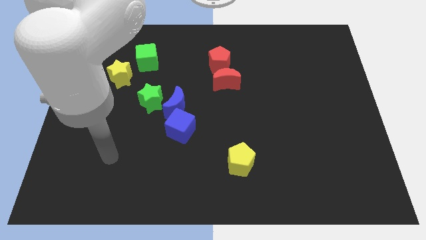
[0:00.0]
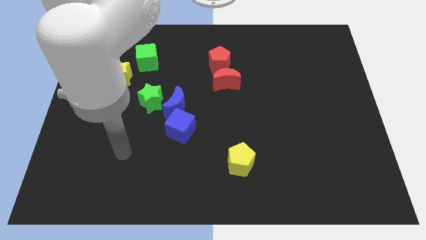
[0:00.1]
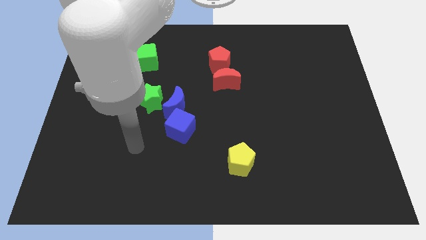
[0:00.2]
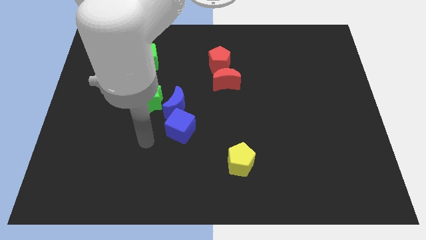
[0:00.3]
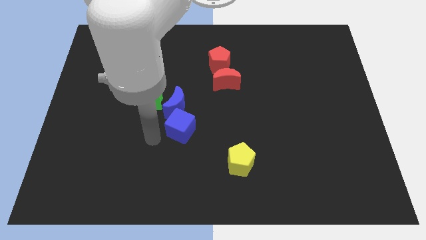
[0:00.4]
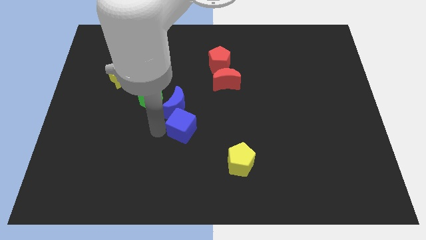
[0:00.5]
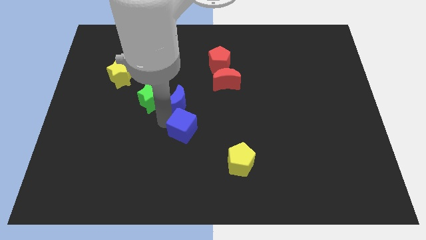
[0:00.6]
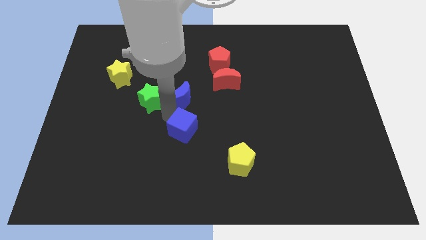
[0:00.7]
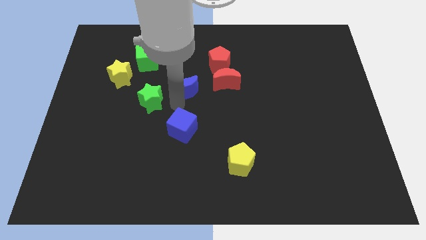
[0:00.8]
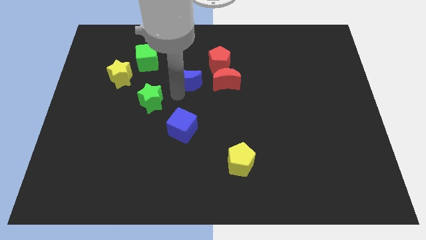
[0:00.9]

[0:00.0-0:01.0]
pull the green star apart from the blue moon

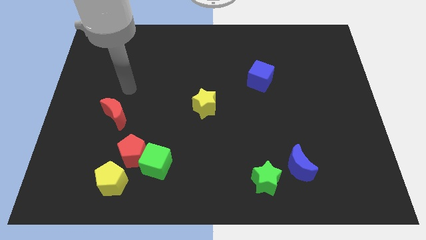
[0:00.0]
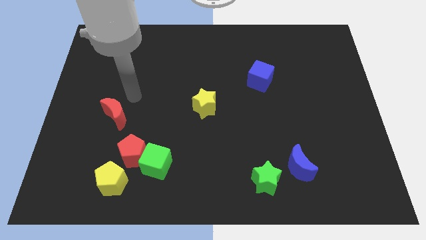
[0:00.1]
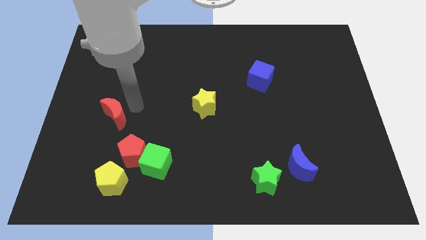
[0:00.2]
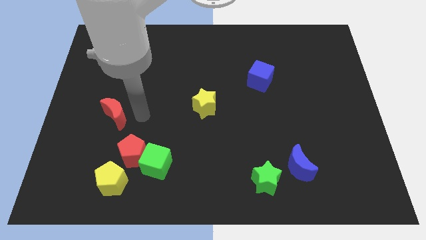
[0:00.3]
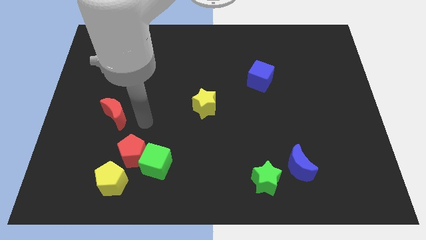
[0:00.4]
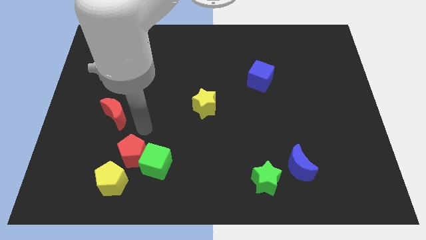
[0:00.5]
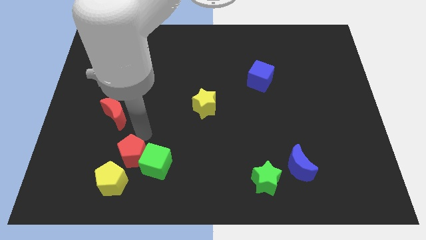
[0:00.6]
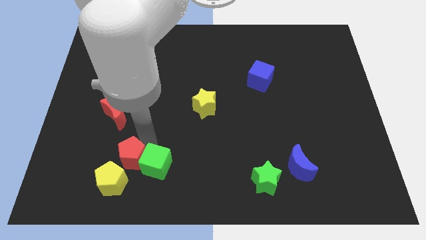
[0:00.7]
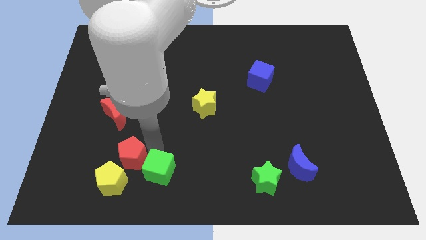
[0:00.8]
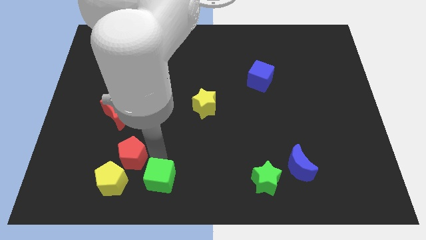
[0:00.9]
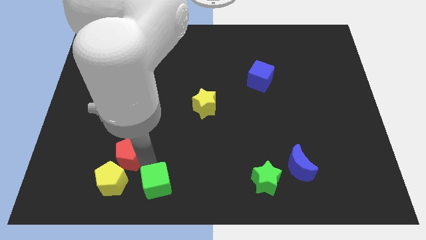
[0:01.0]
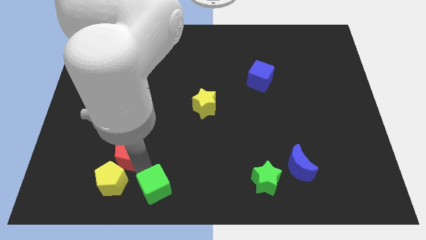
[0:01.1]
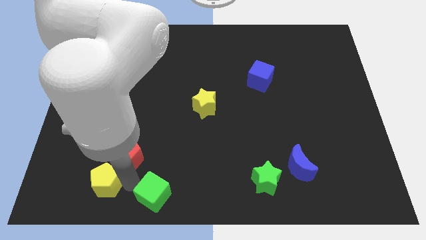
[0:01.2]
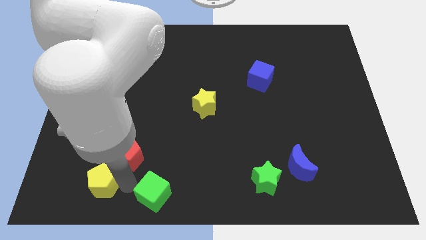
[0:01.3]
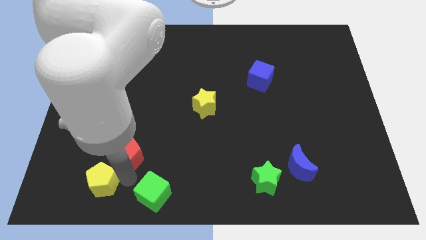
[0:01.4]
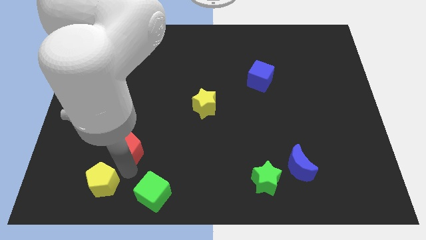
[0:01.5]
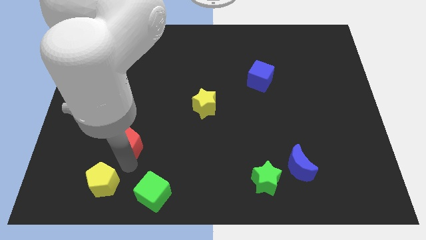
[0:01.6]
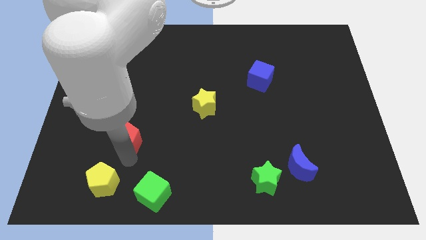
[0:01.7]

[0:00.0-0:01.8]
pull the red pentagon apart from the green cube and yellow pentagon

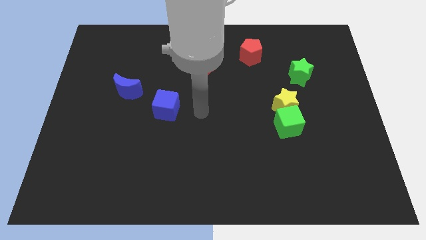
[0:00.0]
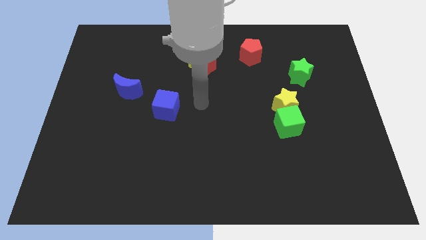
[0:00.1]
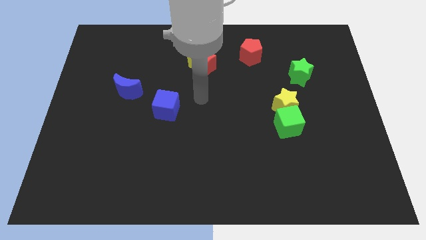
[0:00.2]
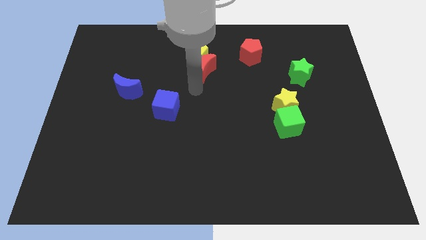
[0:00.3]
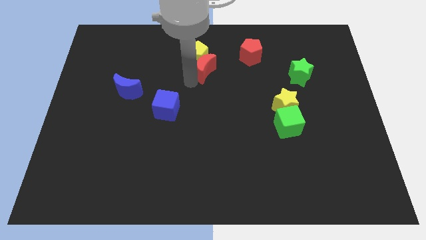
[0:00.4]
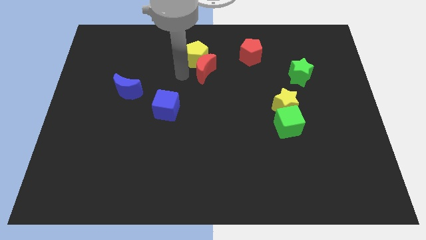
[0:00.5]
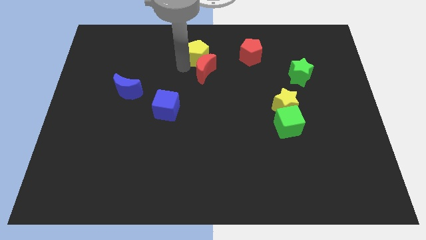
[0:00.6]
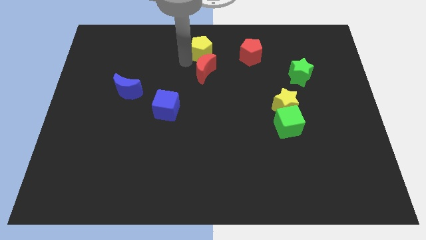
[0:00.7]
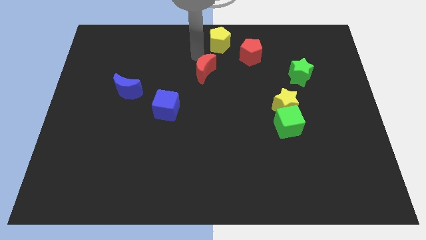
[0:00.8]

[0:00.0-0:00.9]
pull the red moon apart from the yellow pentagon

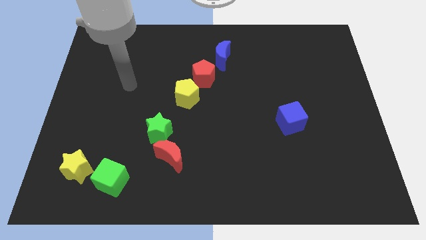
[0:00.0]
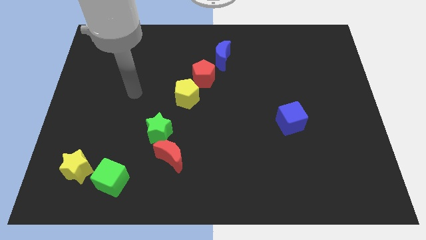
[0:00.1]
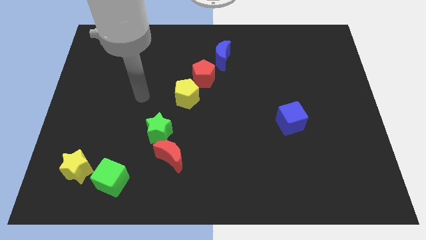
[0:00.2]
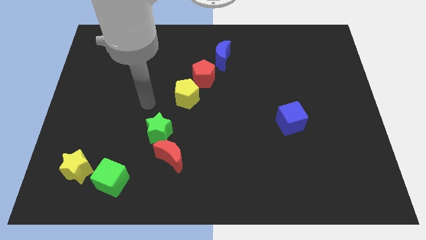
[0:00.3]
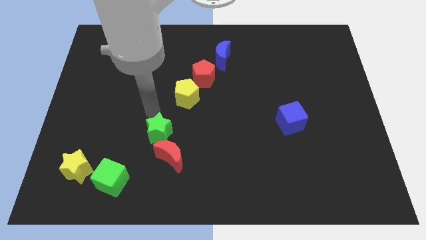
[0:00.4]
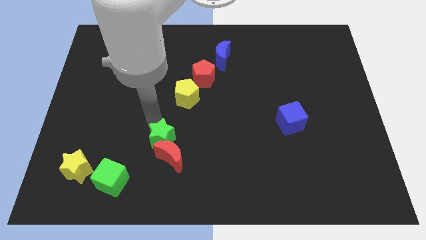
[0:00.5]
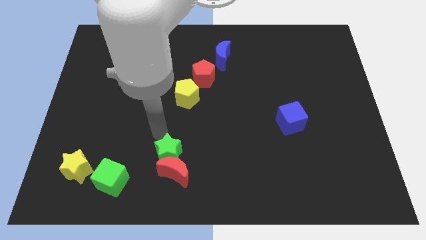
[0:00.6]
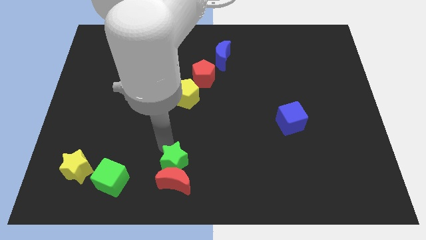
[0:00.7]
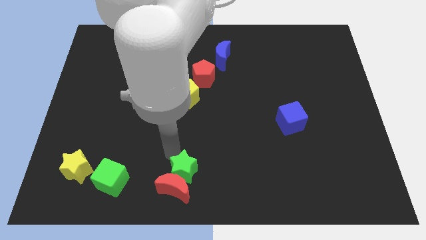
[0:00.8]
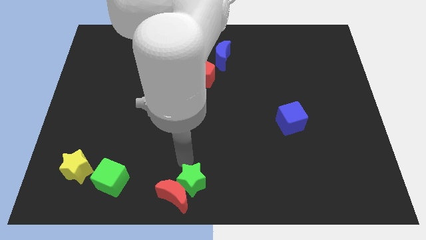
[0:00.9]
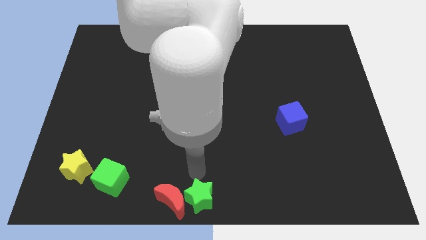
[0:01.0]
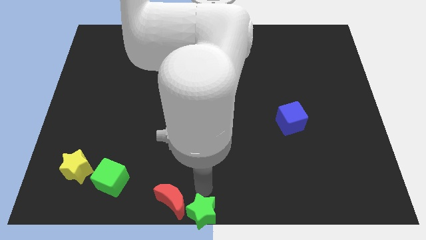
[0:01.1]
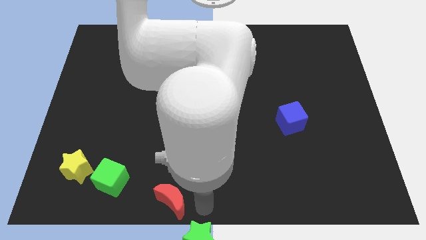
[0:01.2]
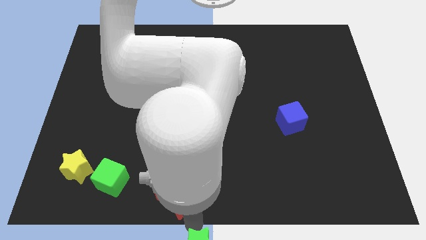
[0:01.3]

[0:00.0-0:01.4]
move the red moon away from the green star

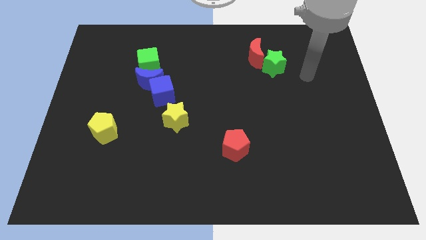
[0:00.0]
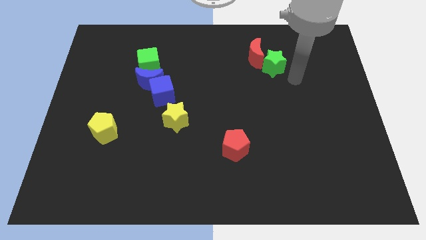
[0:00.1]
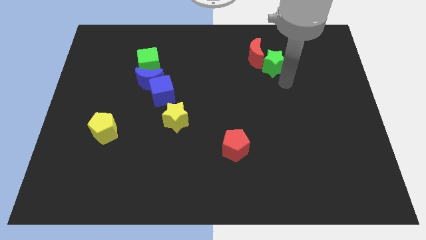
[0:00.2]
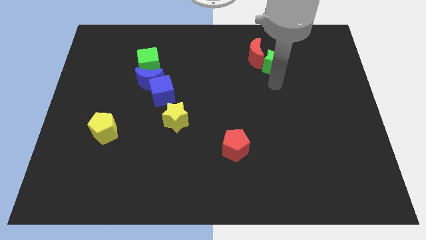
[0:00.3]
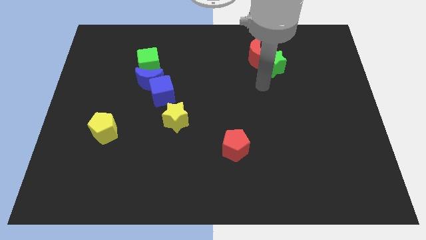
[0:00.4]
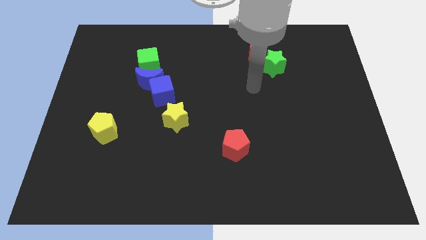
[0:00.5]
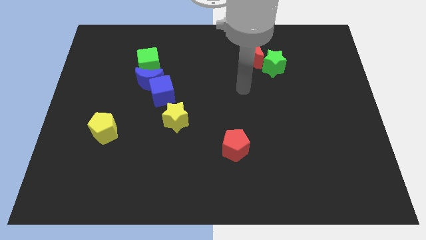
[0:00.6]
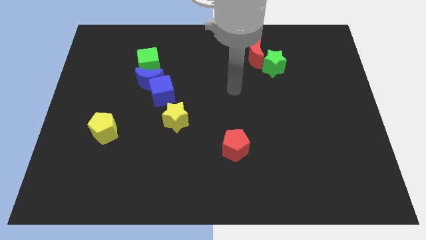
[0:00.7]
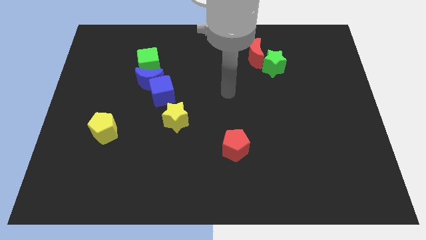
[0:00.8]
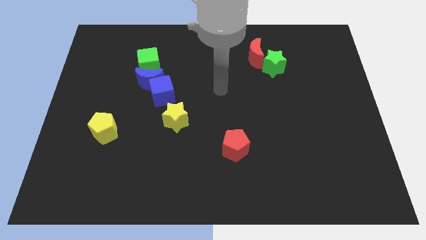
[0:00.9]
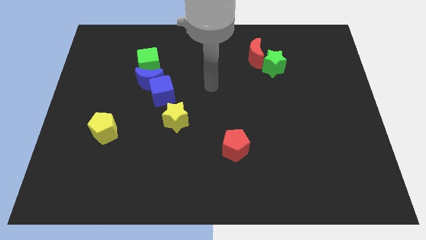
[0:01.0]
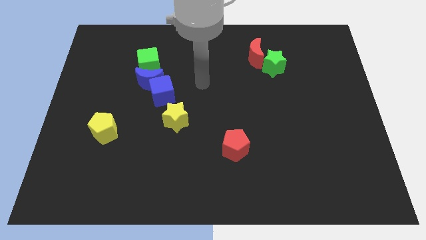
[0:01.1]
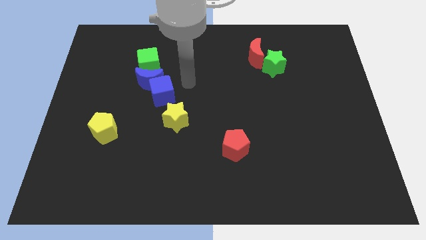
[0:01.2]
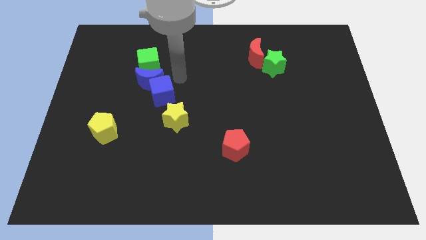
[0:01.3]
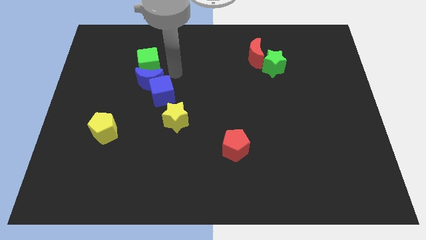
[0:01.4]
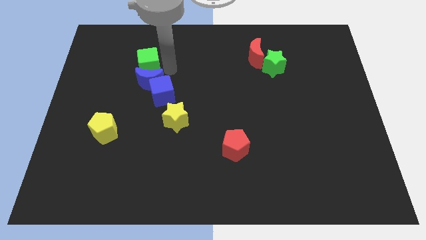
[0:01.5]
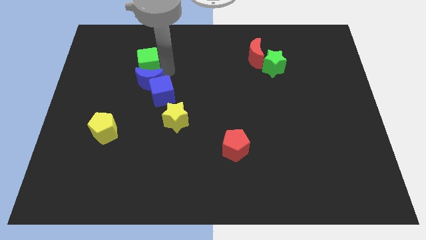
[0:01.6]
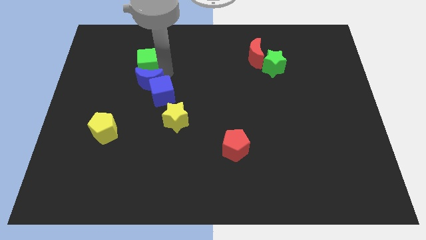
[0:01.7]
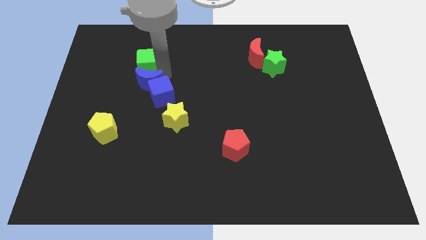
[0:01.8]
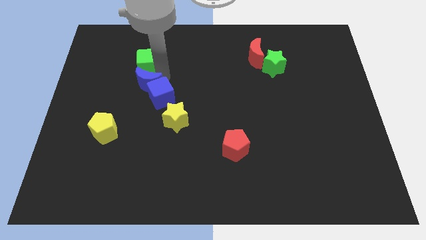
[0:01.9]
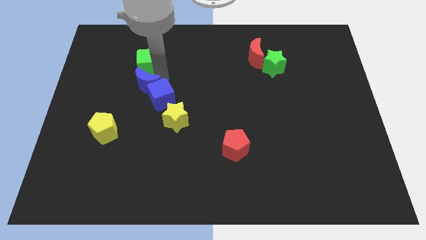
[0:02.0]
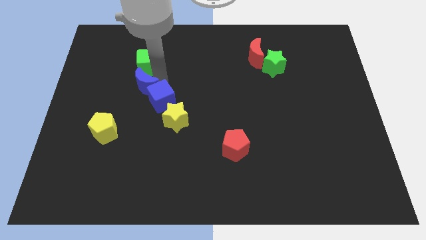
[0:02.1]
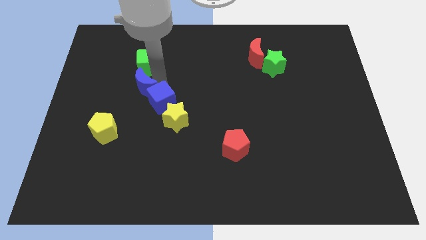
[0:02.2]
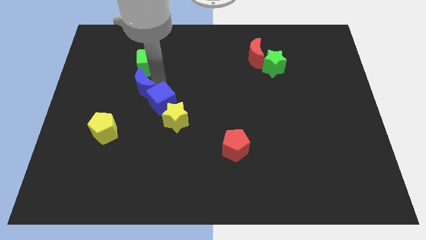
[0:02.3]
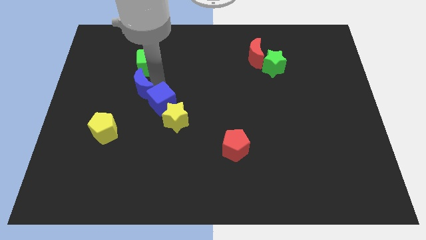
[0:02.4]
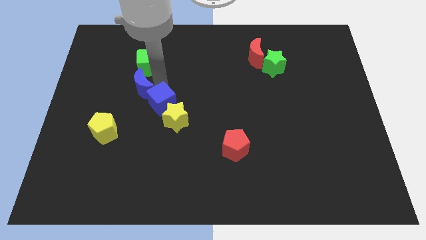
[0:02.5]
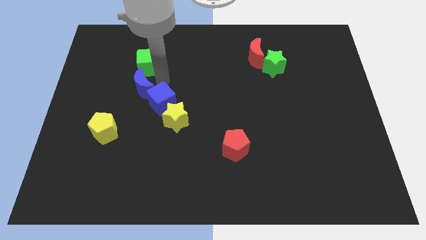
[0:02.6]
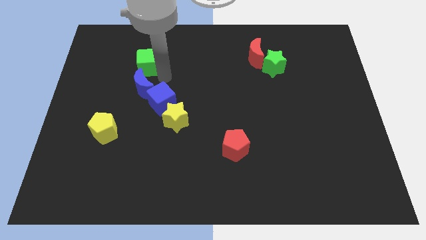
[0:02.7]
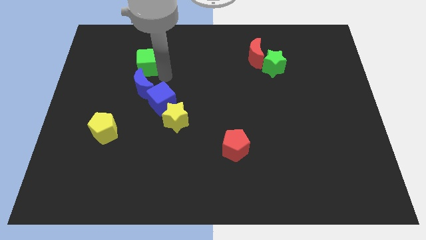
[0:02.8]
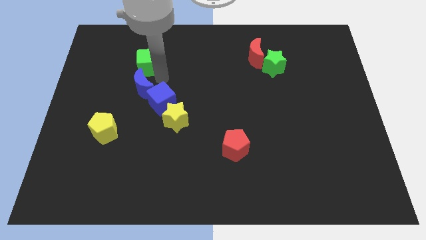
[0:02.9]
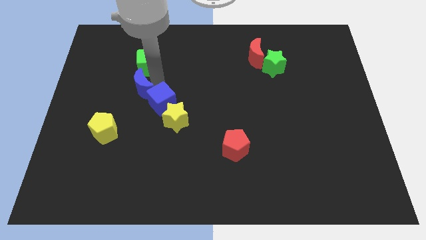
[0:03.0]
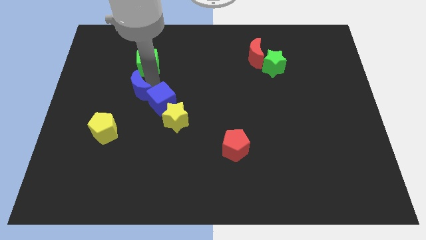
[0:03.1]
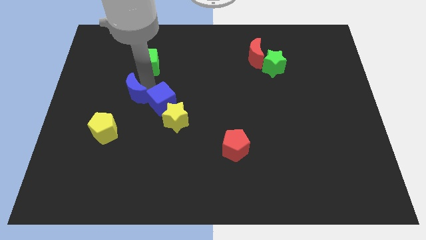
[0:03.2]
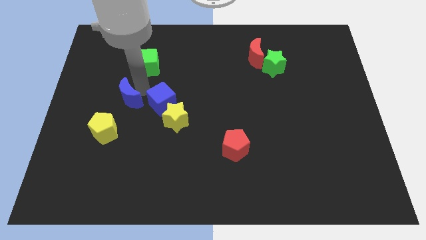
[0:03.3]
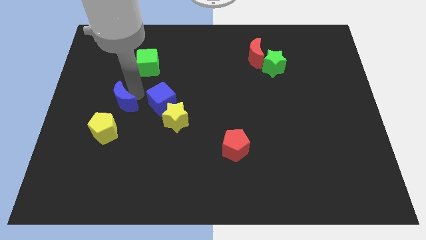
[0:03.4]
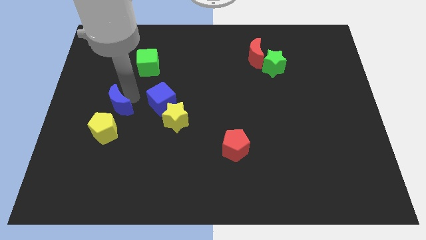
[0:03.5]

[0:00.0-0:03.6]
move the blue moon away from the blue cube and green cube

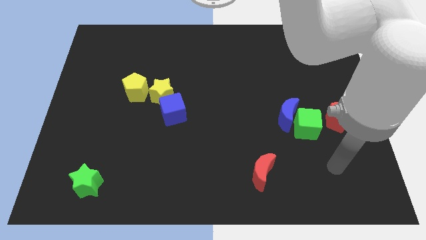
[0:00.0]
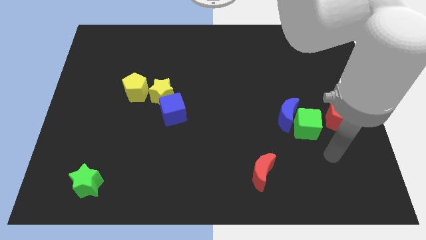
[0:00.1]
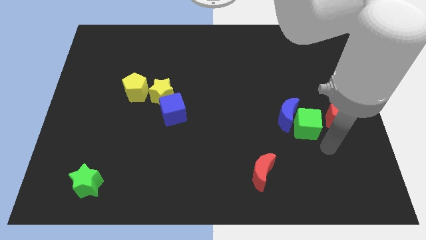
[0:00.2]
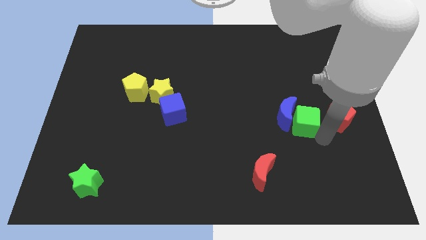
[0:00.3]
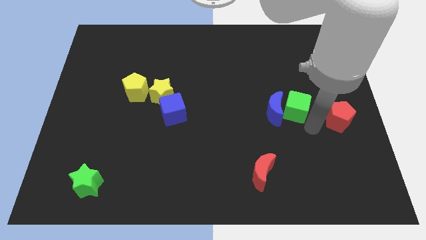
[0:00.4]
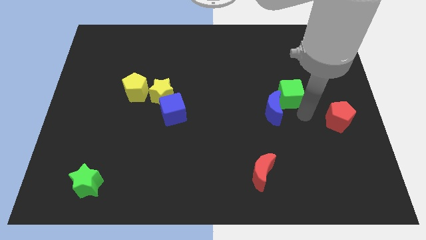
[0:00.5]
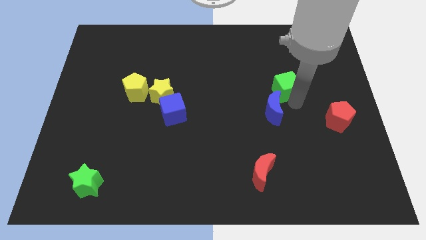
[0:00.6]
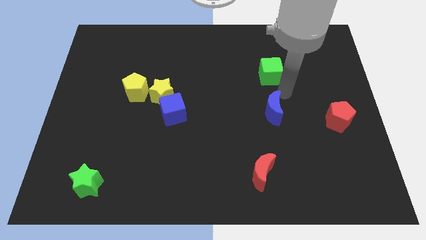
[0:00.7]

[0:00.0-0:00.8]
pull the blue moon apart from the green cube
